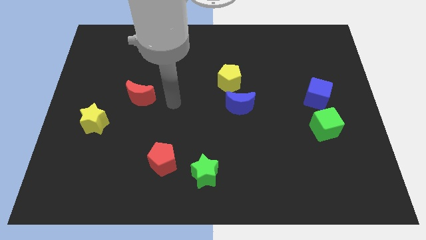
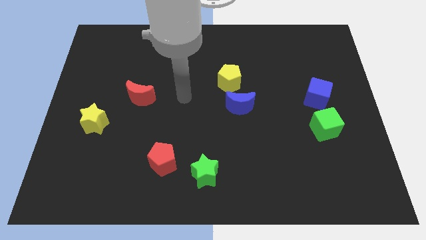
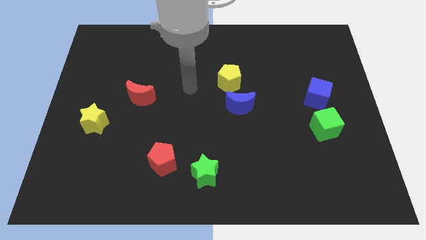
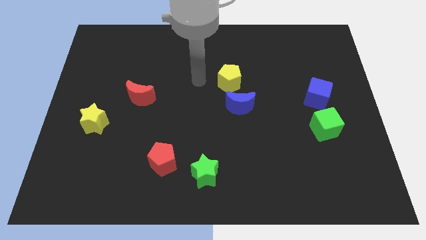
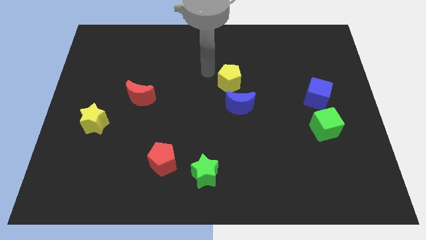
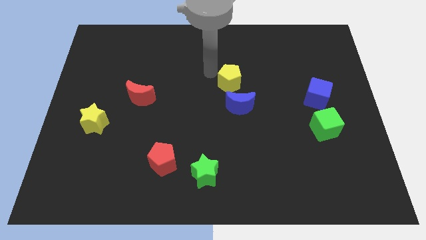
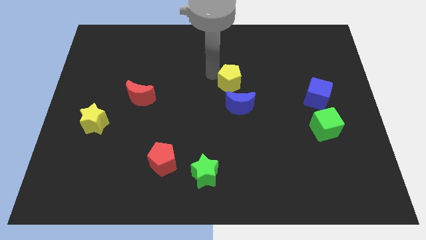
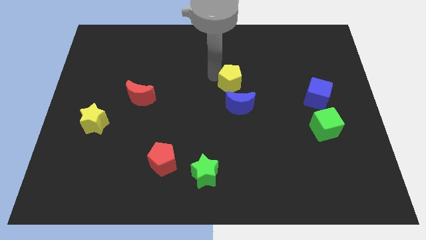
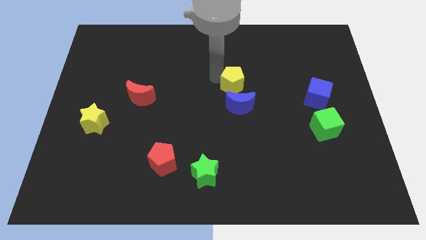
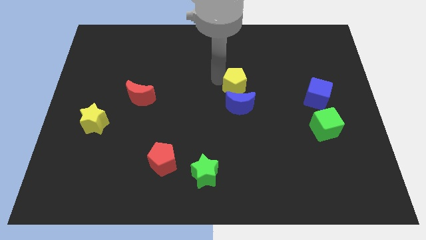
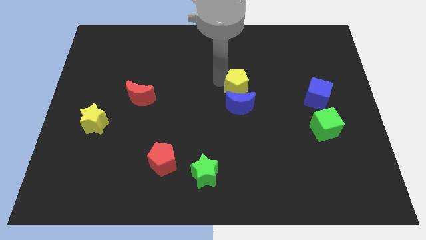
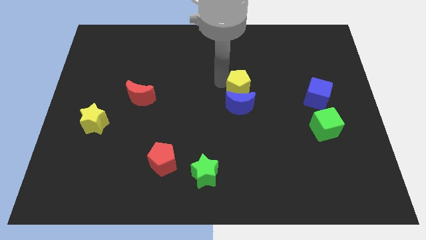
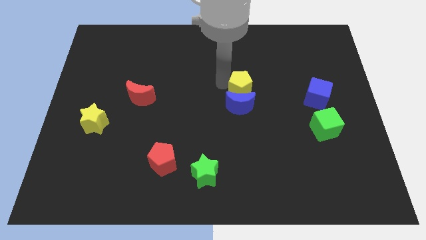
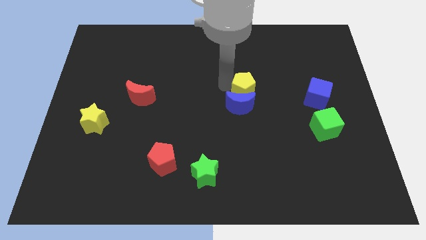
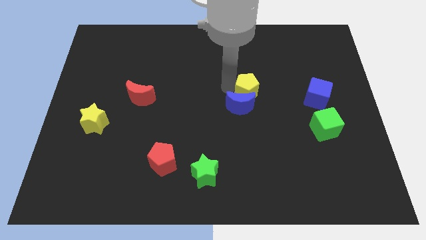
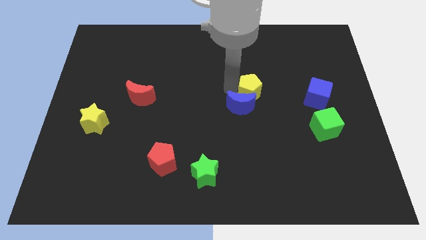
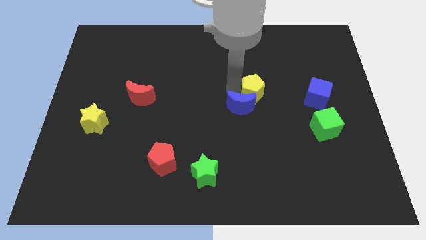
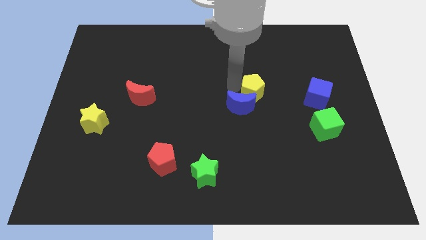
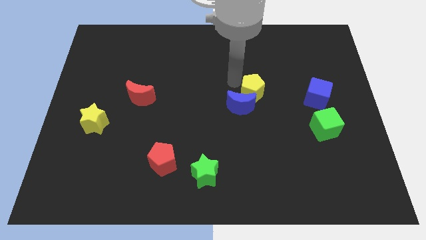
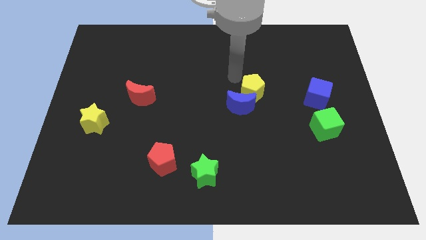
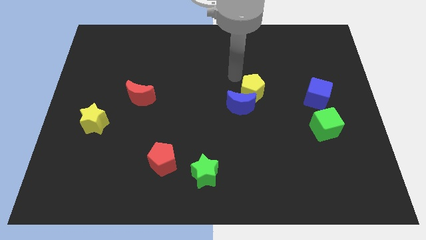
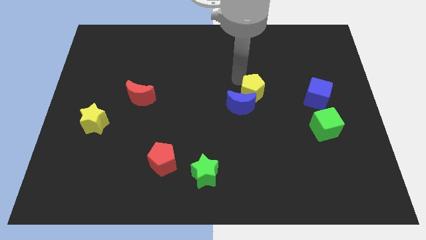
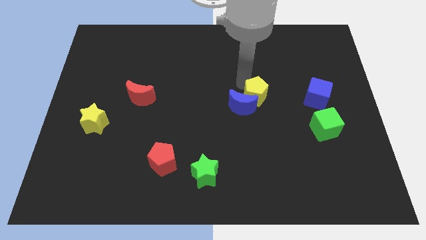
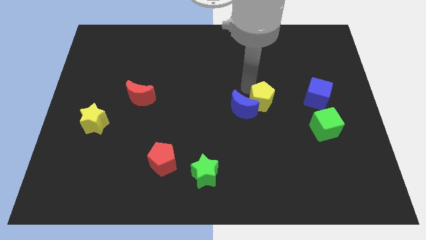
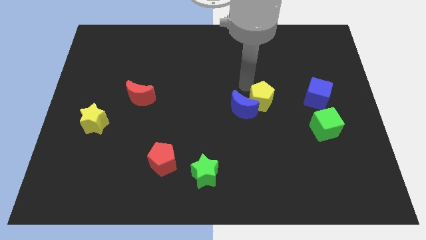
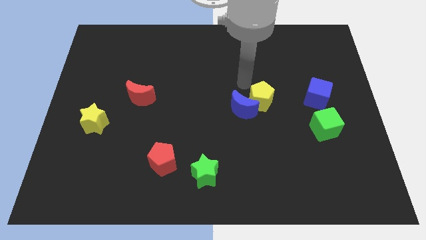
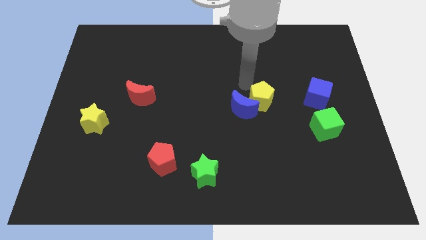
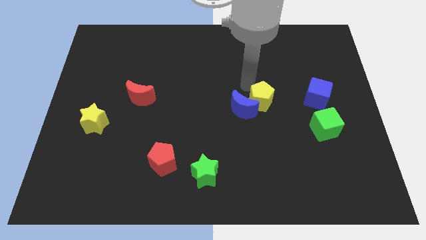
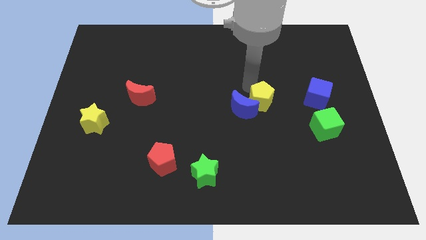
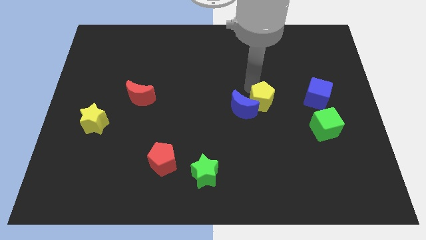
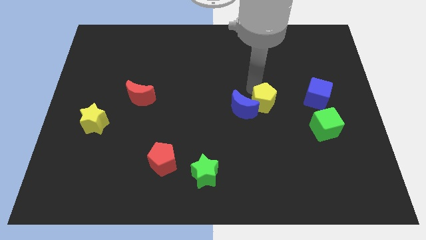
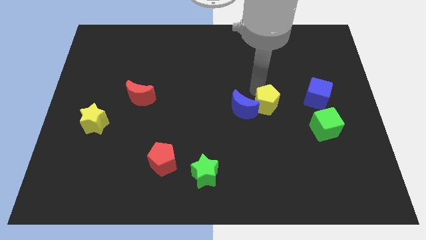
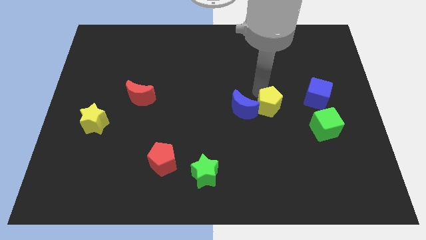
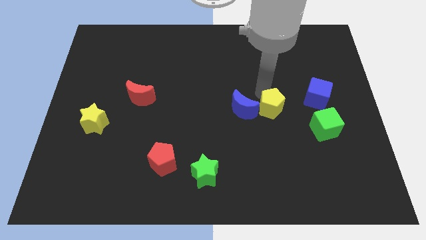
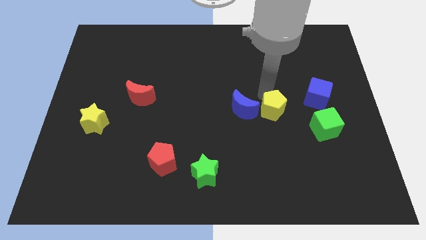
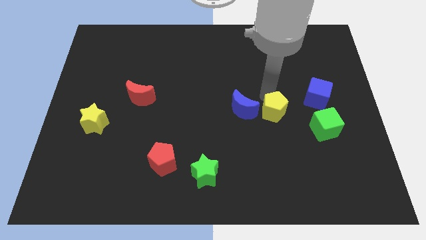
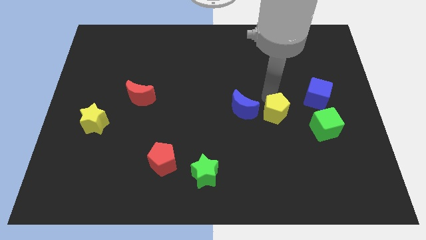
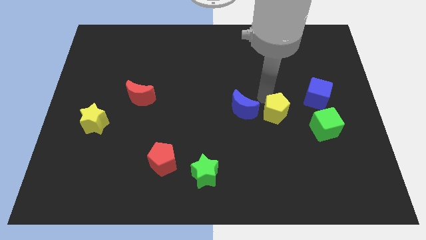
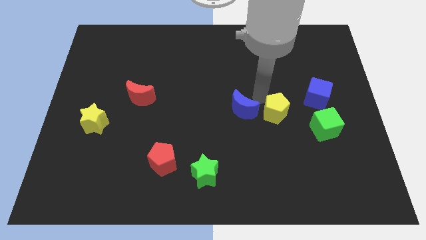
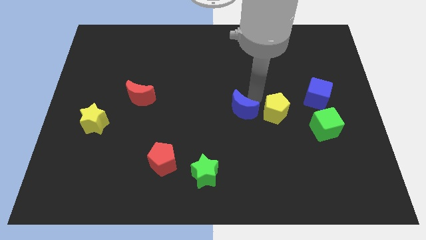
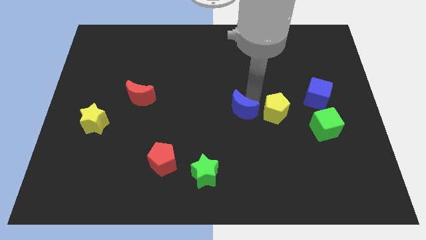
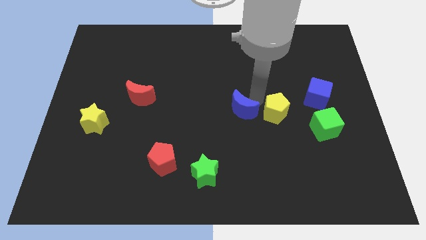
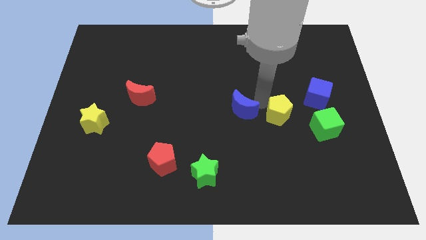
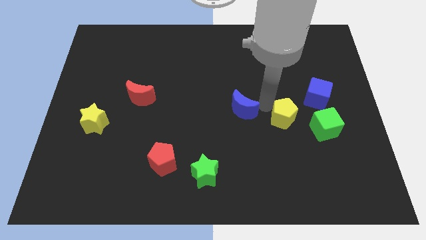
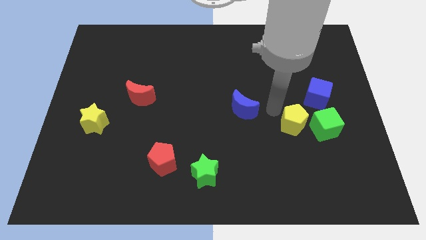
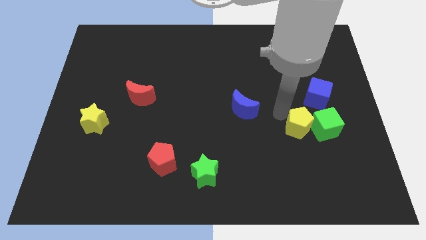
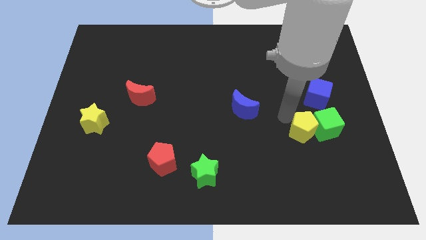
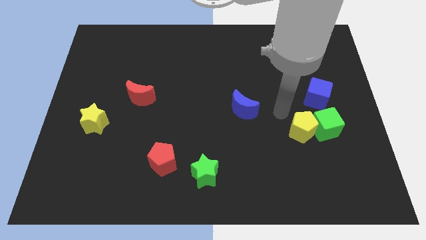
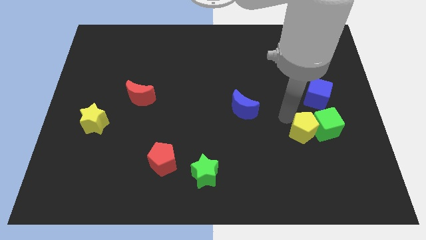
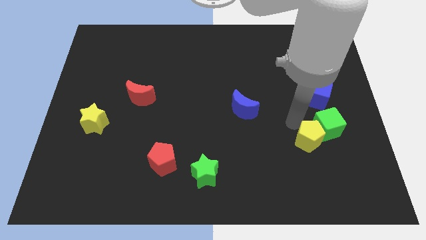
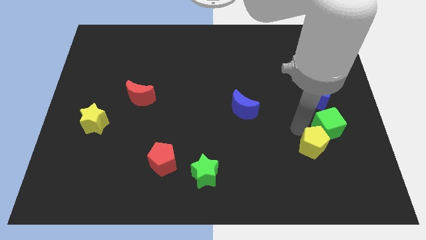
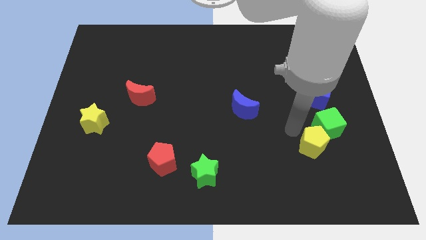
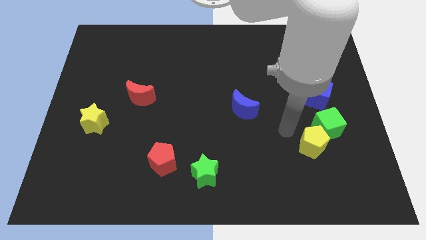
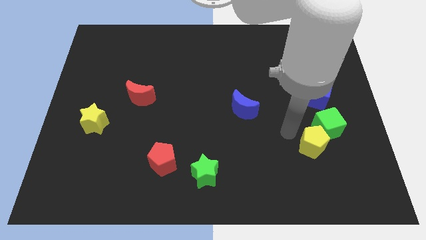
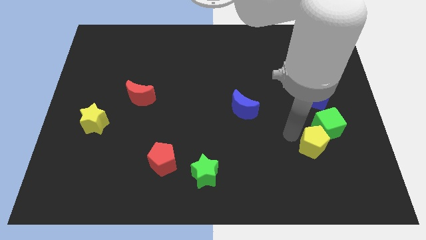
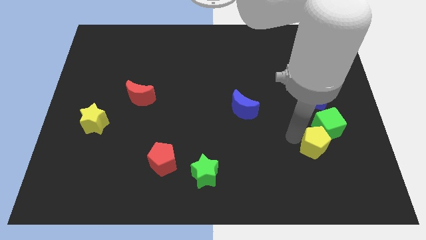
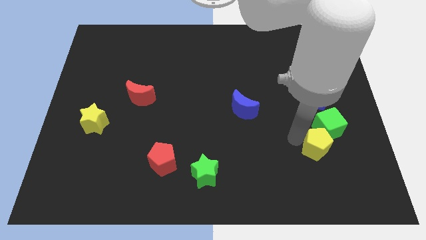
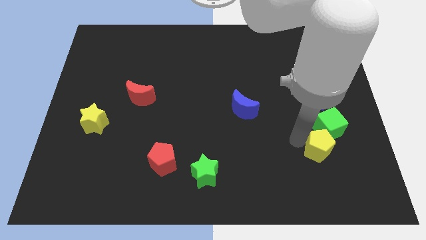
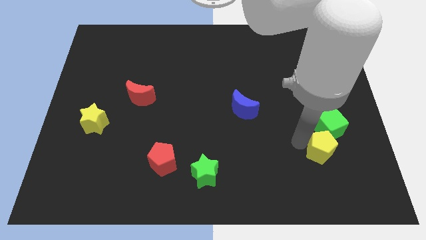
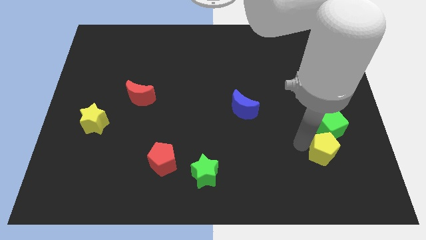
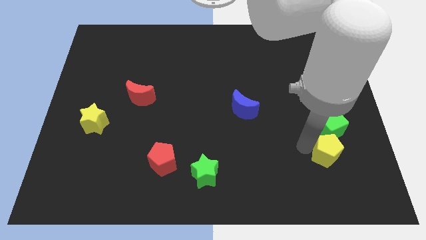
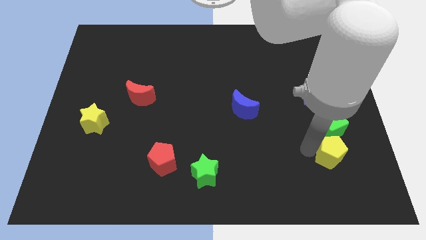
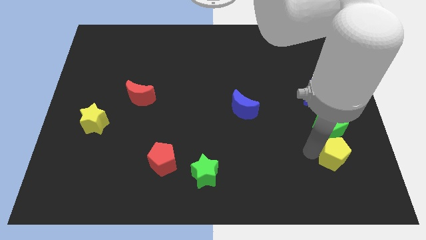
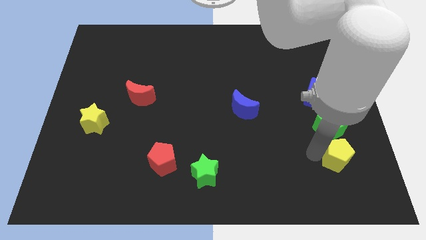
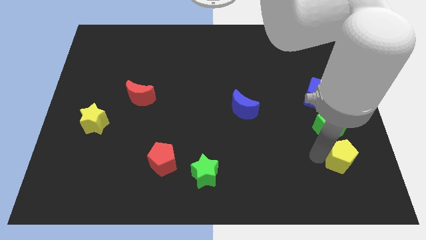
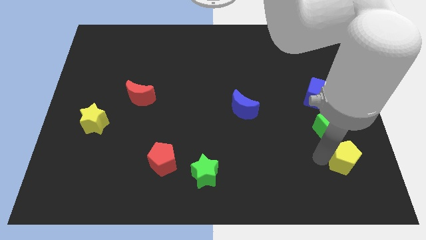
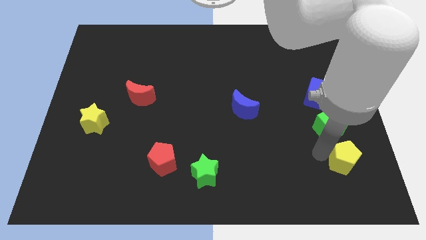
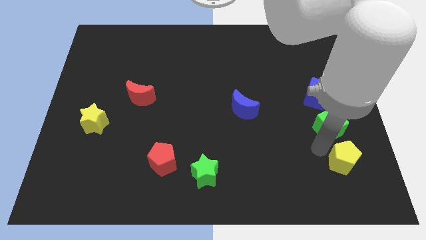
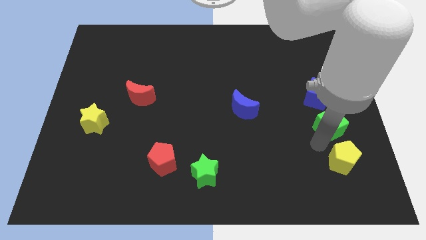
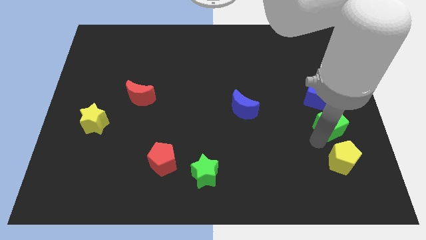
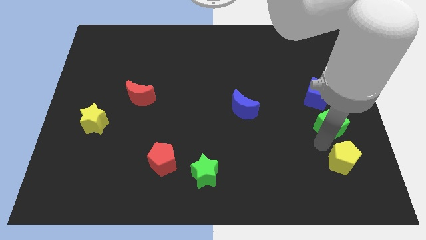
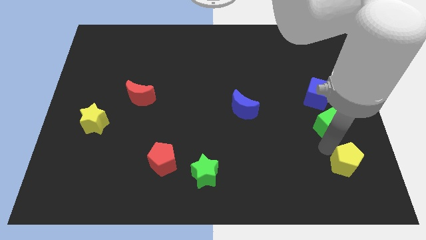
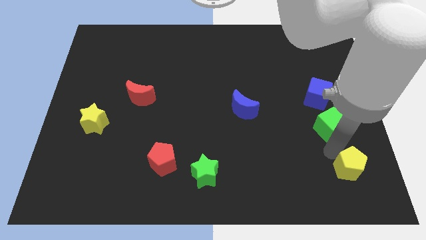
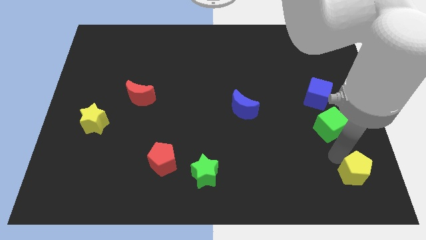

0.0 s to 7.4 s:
move the yellow pentagon to the bottom right corner
